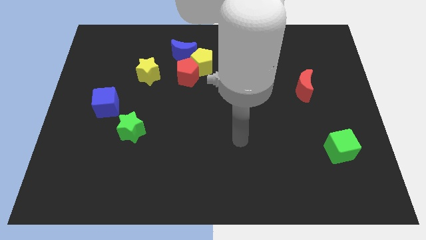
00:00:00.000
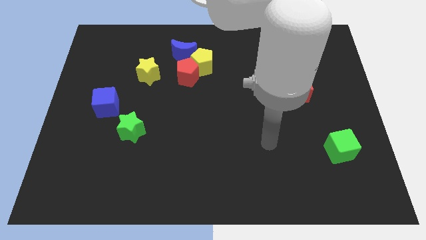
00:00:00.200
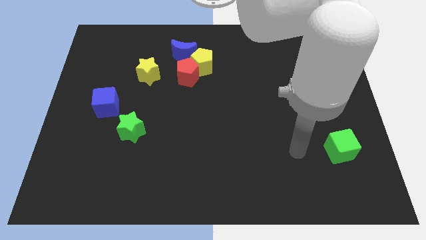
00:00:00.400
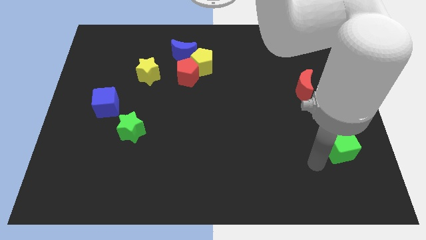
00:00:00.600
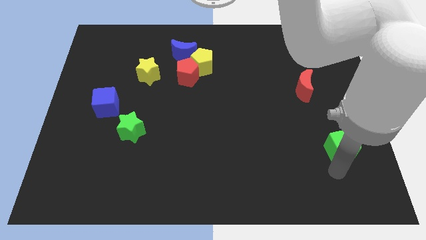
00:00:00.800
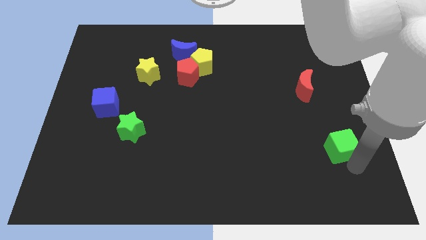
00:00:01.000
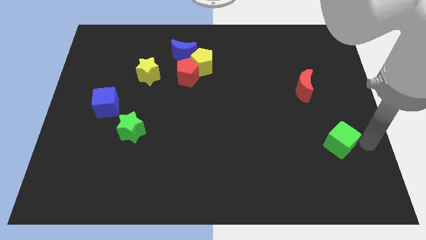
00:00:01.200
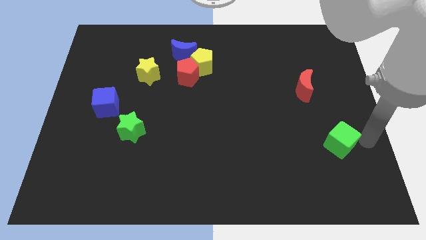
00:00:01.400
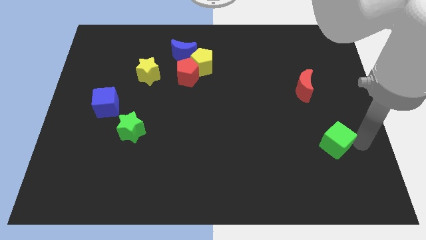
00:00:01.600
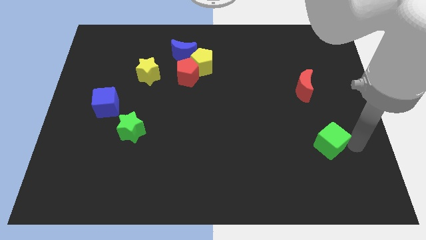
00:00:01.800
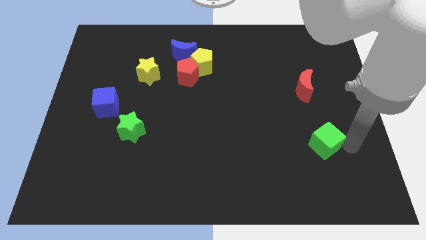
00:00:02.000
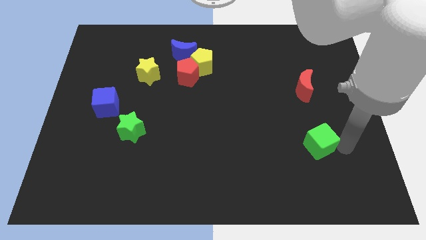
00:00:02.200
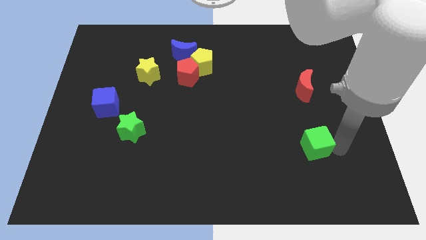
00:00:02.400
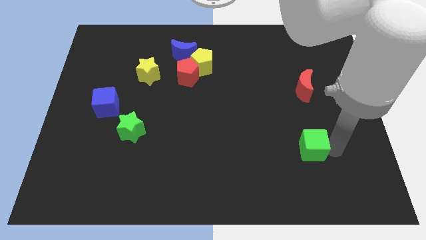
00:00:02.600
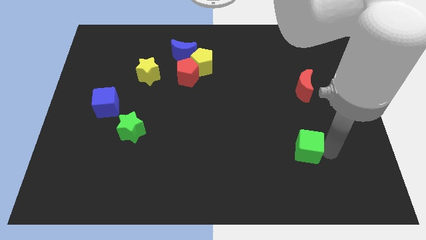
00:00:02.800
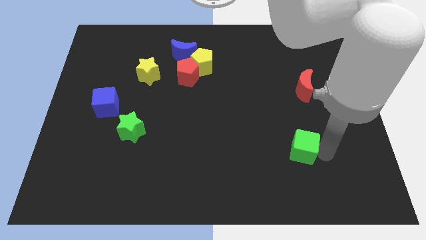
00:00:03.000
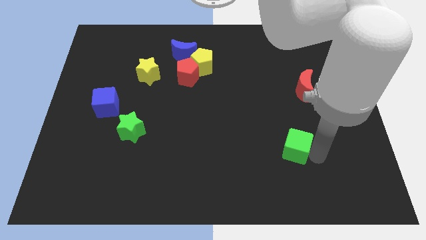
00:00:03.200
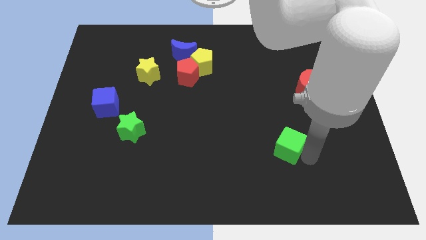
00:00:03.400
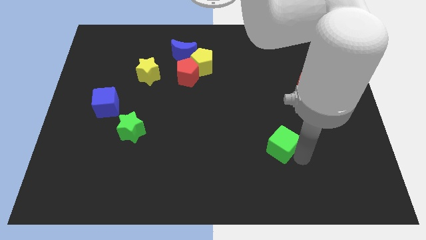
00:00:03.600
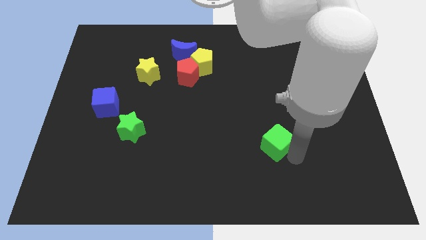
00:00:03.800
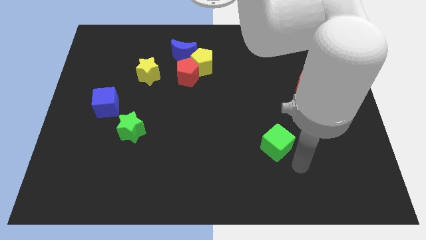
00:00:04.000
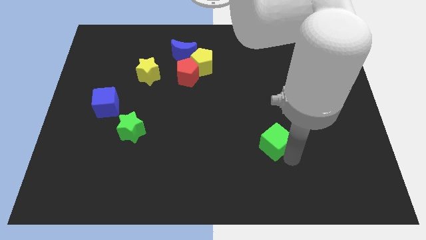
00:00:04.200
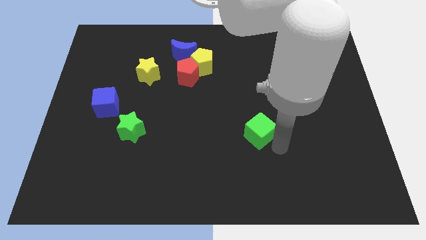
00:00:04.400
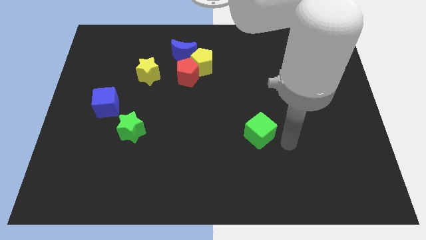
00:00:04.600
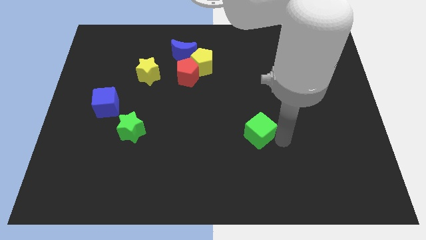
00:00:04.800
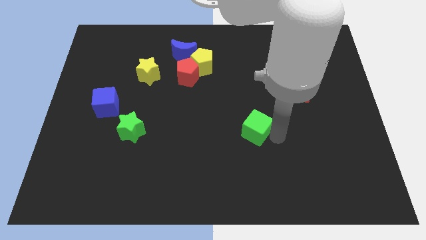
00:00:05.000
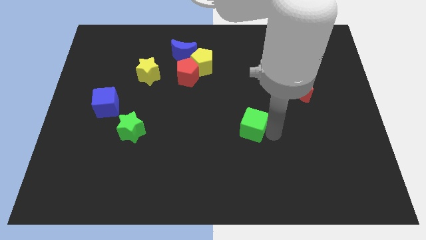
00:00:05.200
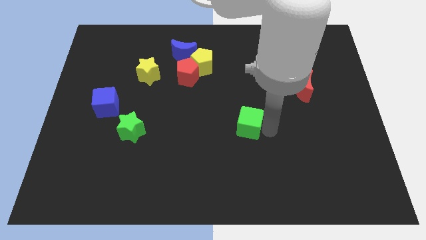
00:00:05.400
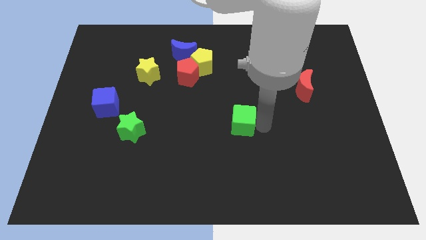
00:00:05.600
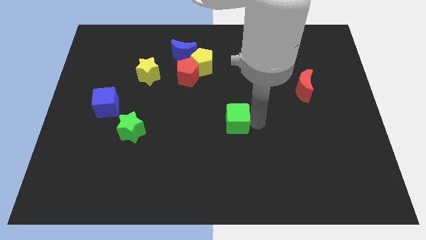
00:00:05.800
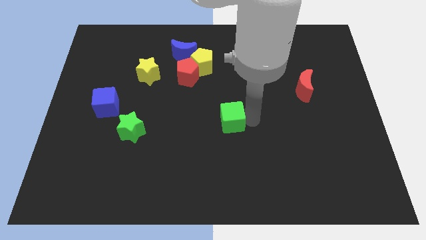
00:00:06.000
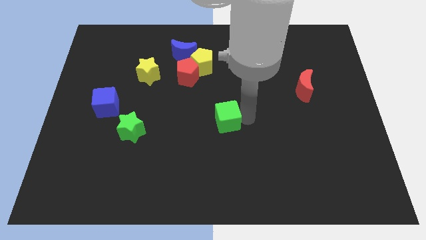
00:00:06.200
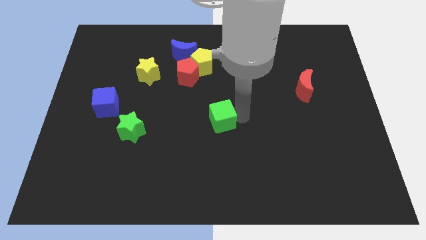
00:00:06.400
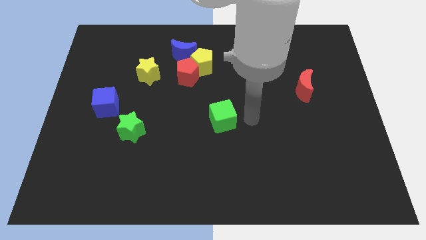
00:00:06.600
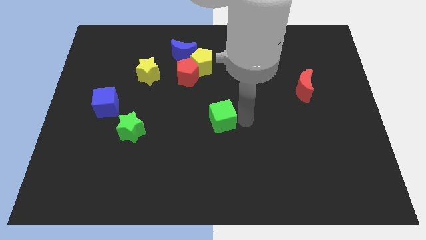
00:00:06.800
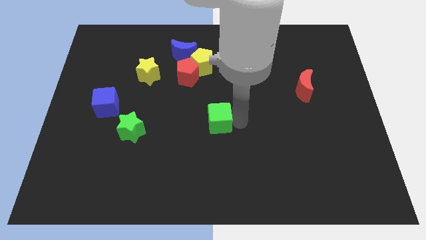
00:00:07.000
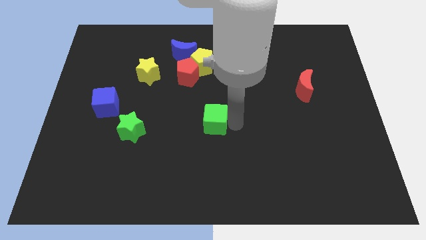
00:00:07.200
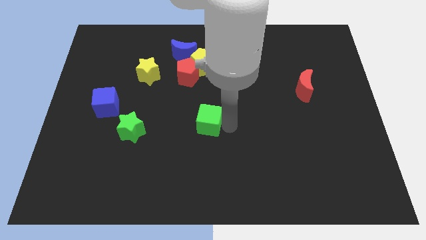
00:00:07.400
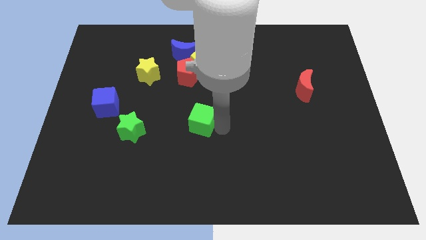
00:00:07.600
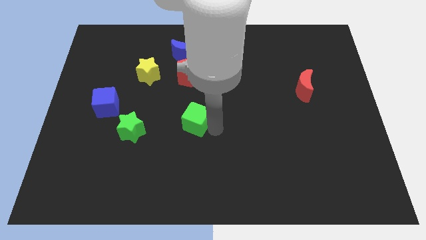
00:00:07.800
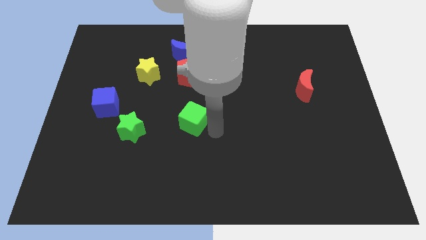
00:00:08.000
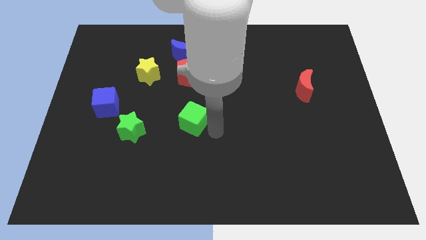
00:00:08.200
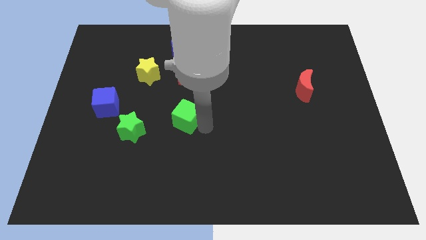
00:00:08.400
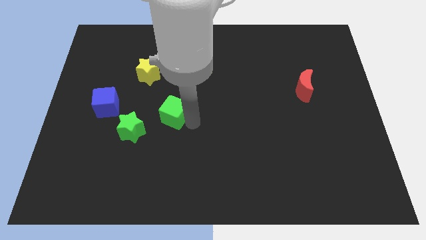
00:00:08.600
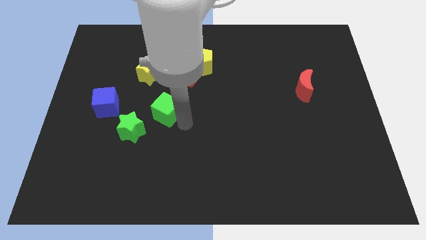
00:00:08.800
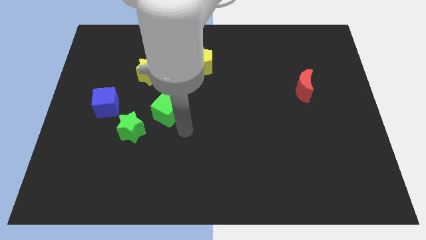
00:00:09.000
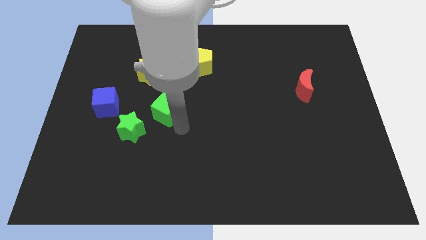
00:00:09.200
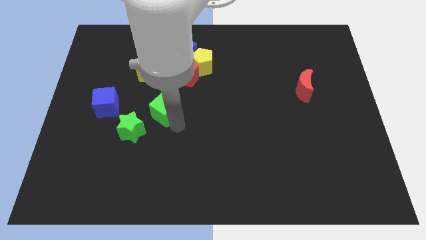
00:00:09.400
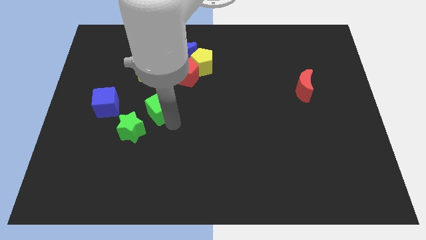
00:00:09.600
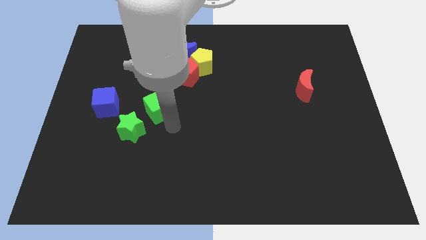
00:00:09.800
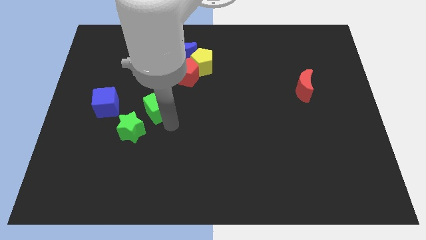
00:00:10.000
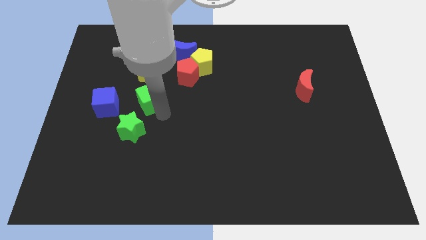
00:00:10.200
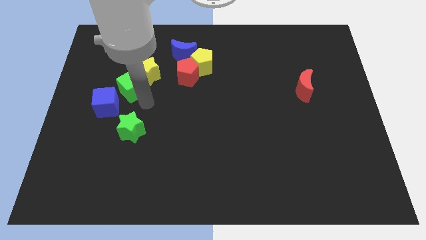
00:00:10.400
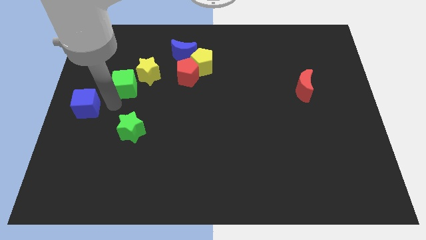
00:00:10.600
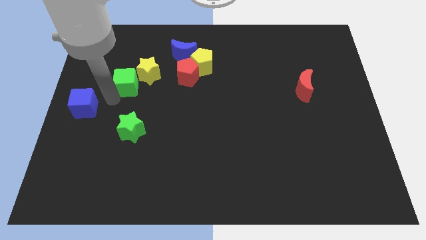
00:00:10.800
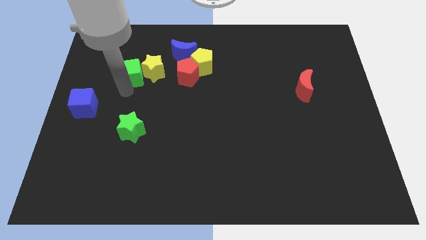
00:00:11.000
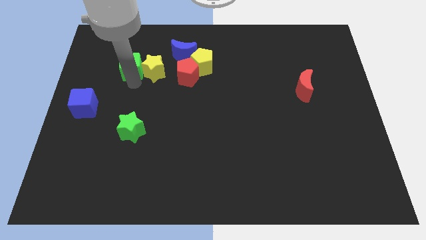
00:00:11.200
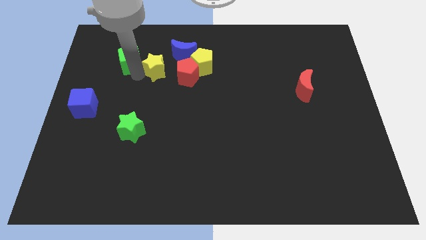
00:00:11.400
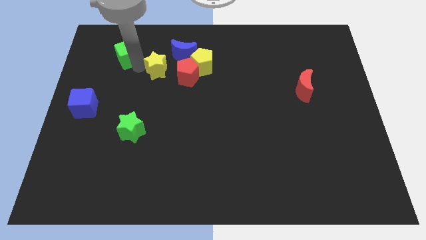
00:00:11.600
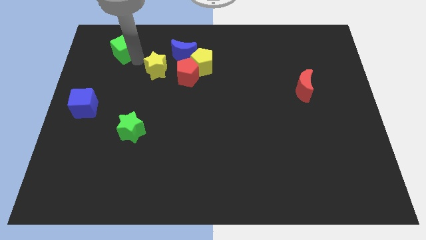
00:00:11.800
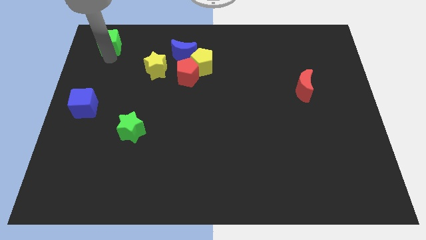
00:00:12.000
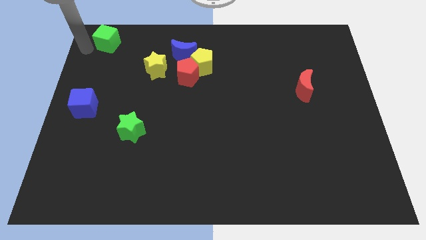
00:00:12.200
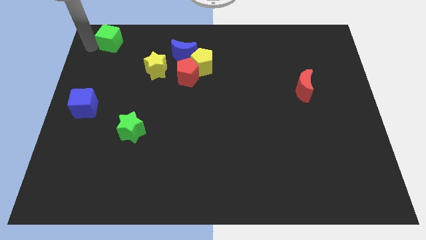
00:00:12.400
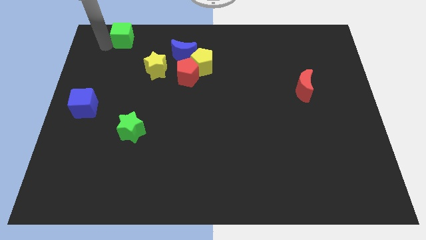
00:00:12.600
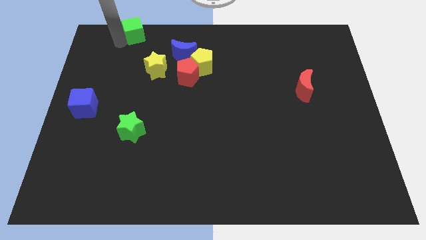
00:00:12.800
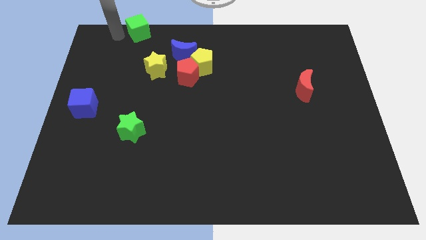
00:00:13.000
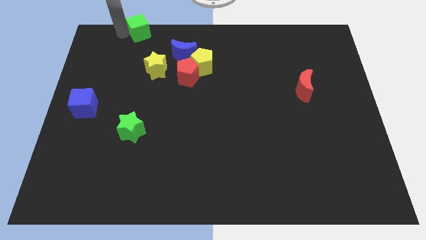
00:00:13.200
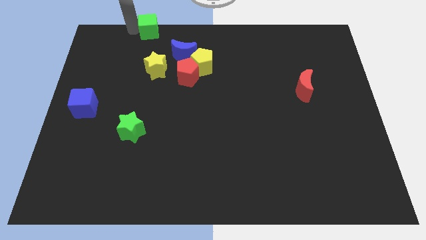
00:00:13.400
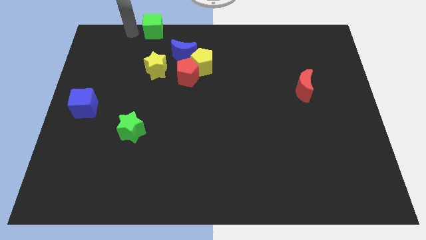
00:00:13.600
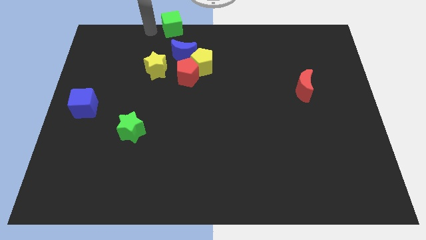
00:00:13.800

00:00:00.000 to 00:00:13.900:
put the green cube to the top
